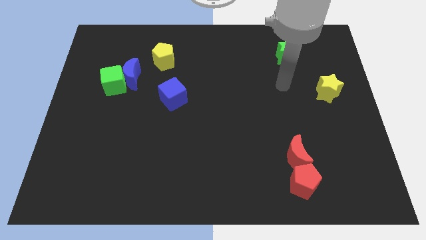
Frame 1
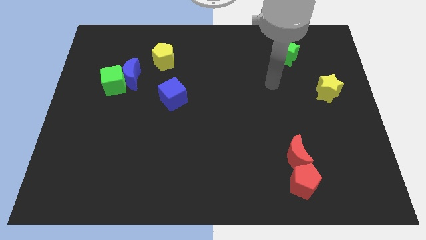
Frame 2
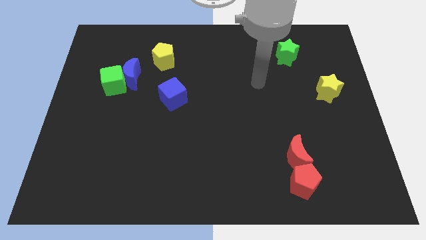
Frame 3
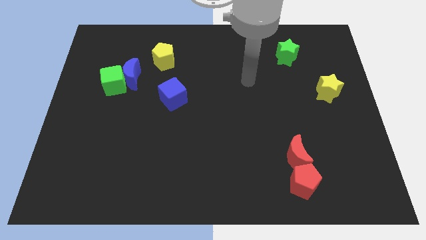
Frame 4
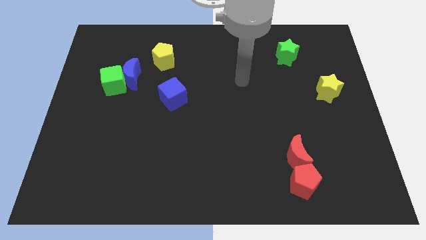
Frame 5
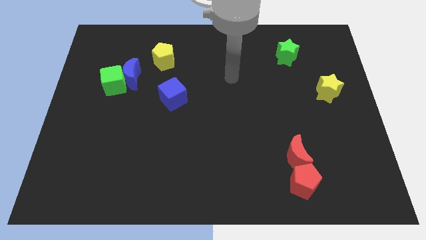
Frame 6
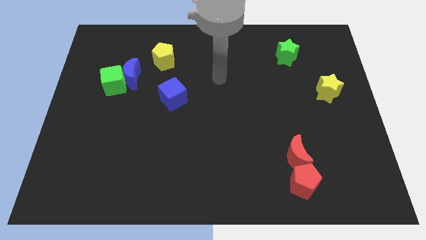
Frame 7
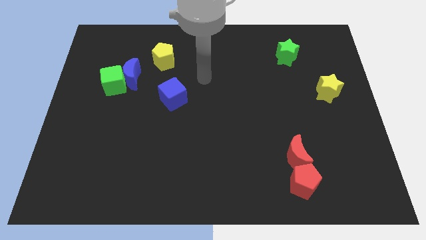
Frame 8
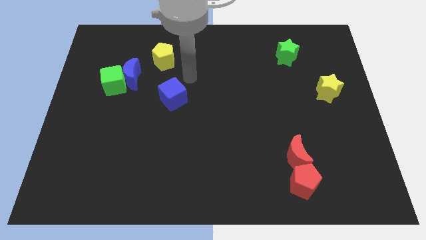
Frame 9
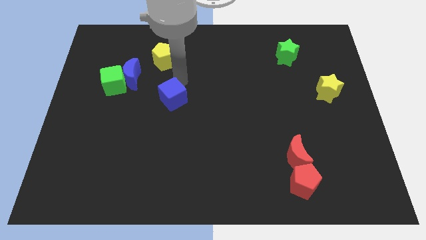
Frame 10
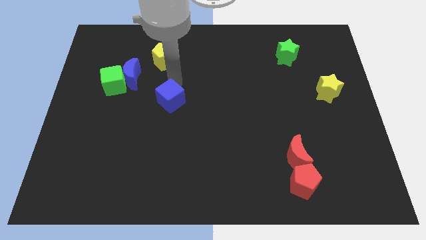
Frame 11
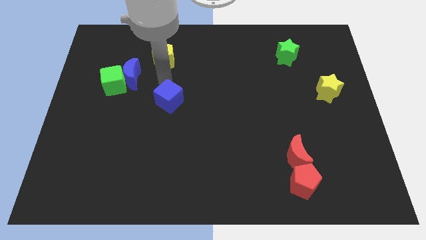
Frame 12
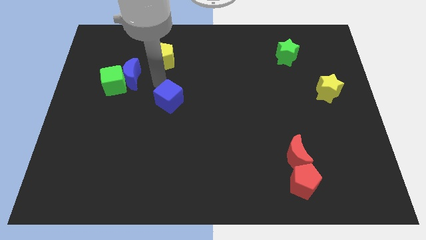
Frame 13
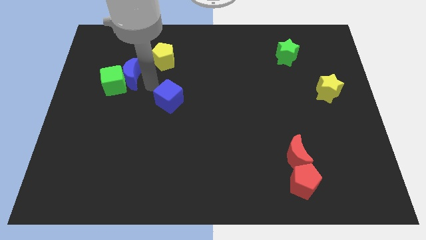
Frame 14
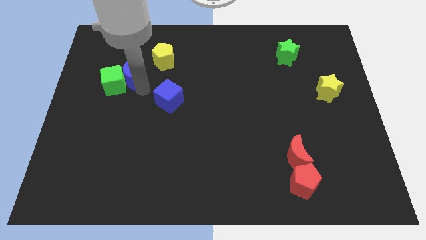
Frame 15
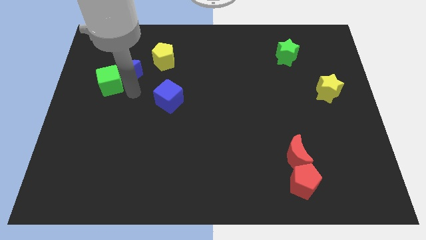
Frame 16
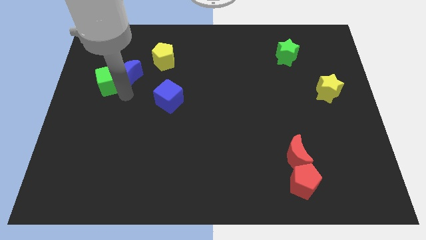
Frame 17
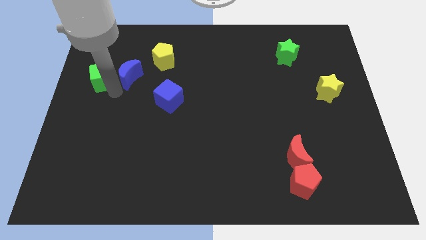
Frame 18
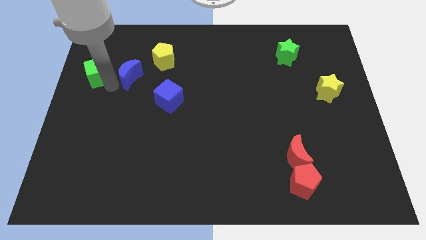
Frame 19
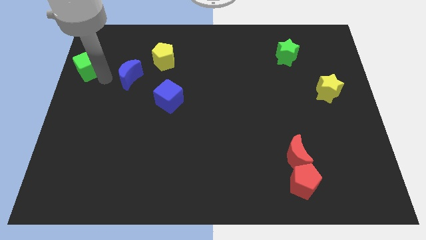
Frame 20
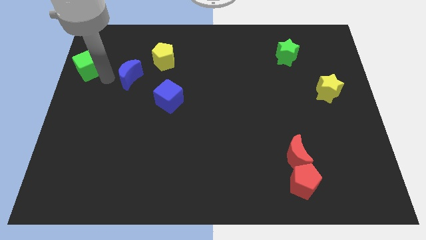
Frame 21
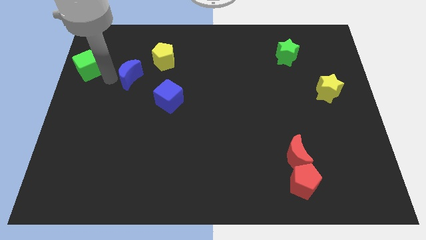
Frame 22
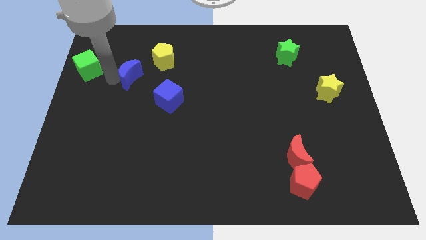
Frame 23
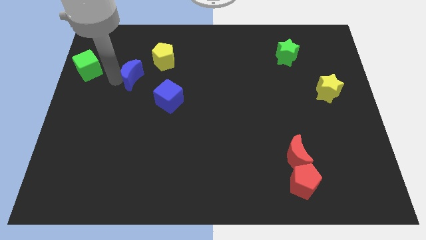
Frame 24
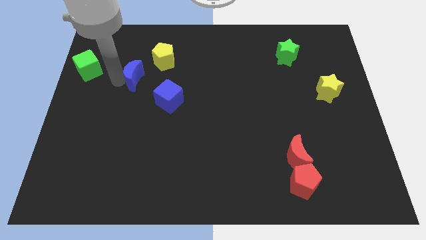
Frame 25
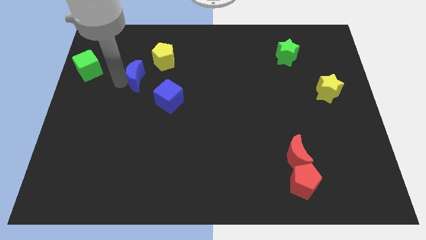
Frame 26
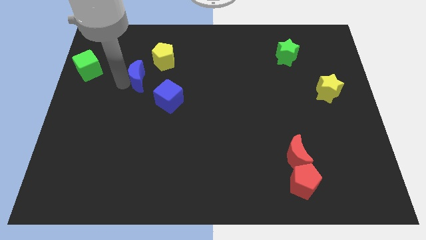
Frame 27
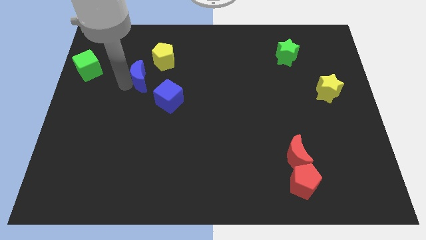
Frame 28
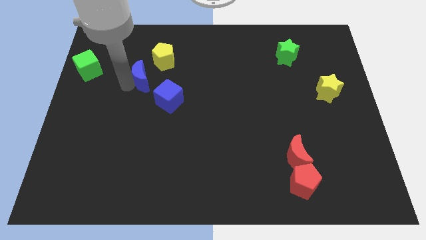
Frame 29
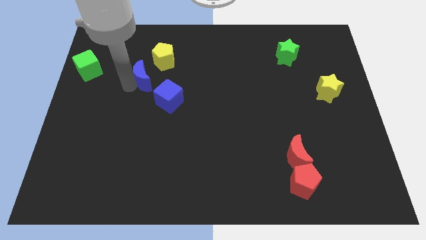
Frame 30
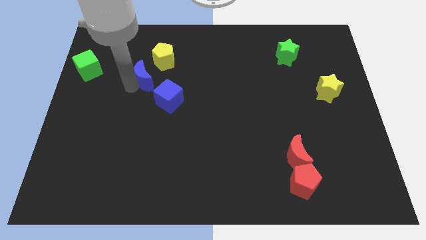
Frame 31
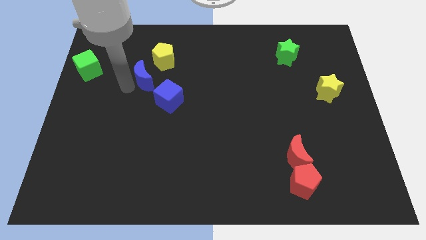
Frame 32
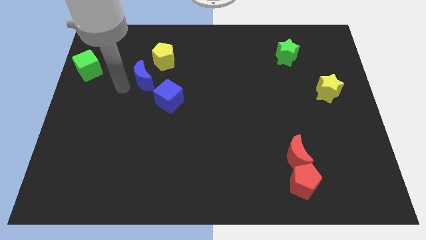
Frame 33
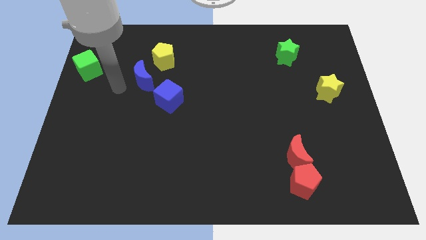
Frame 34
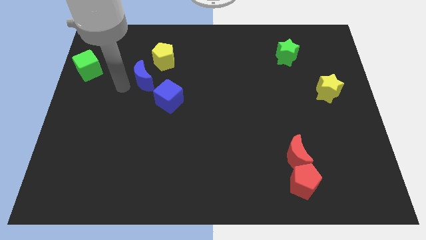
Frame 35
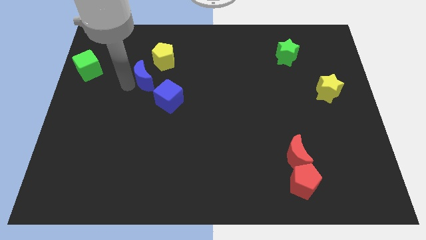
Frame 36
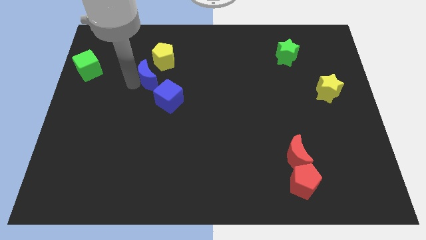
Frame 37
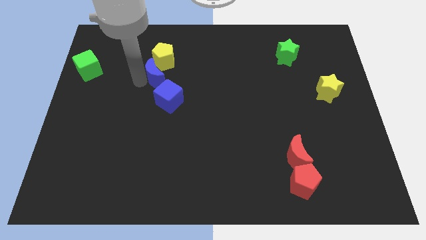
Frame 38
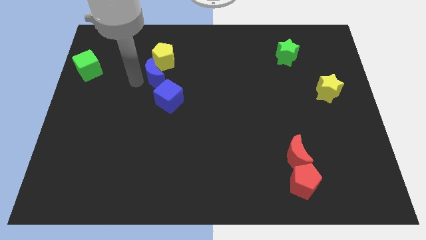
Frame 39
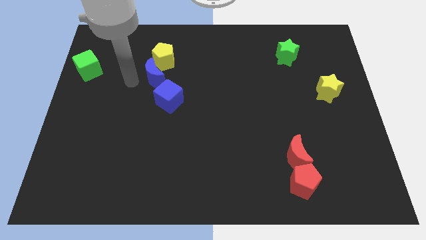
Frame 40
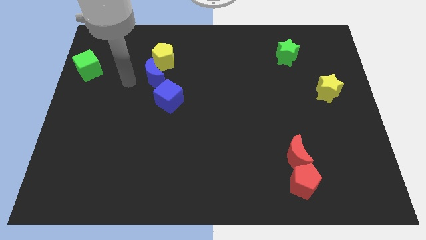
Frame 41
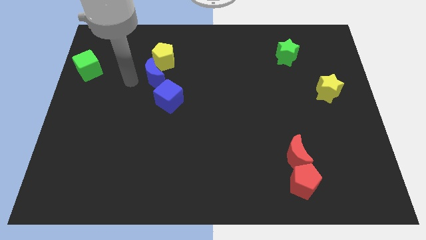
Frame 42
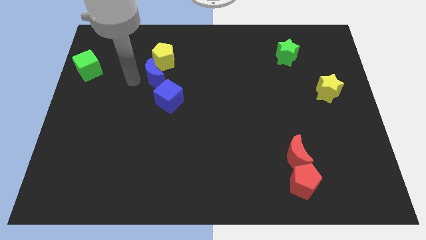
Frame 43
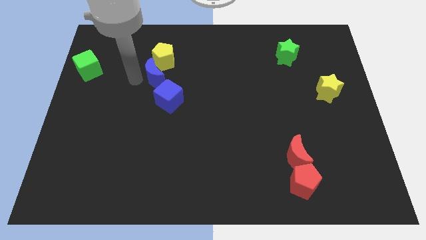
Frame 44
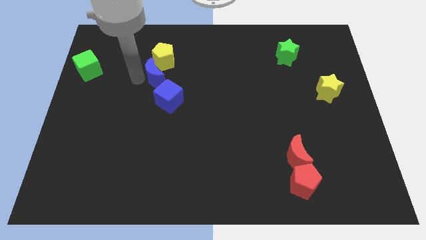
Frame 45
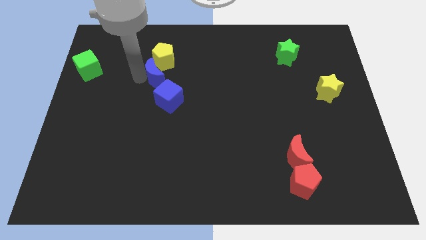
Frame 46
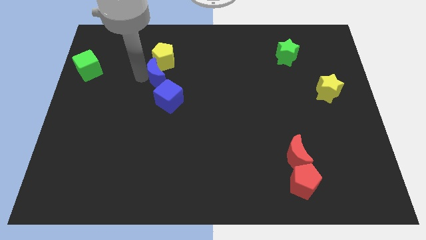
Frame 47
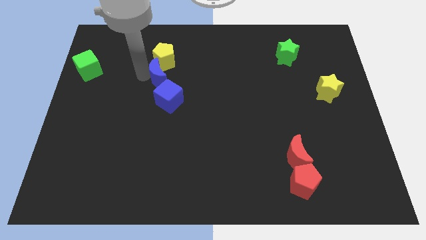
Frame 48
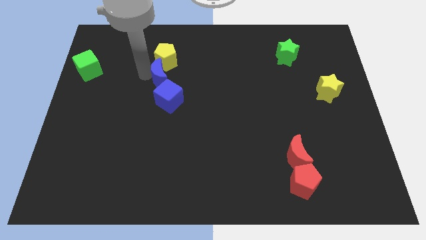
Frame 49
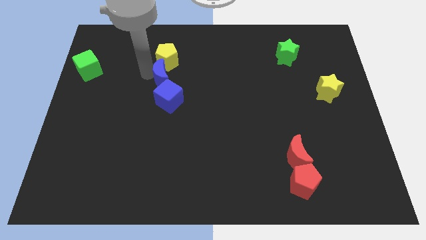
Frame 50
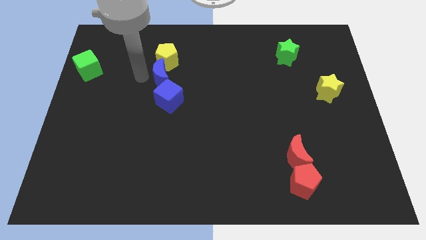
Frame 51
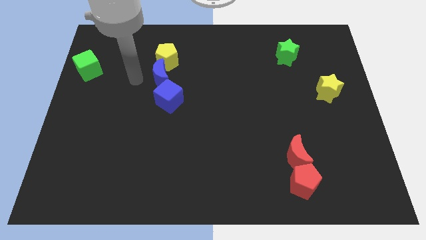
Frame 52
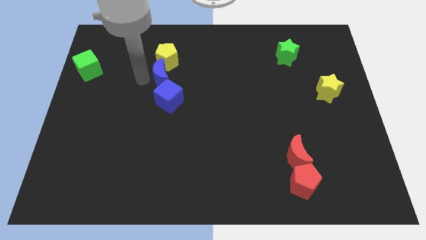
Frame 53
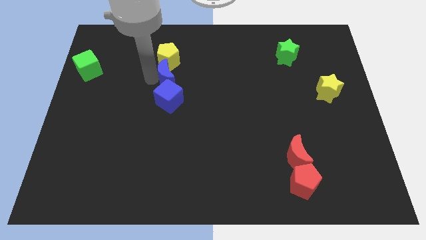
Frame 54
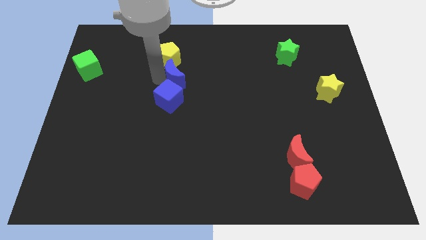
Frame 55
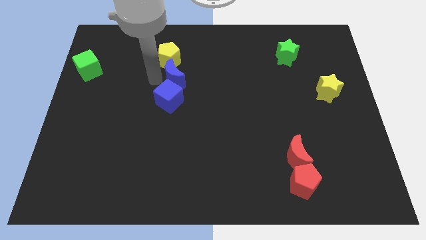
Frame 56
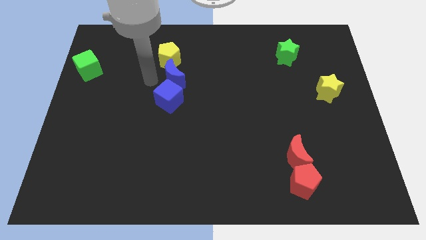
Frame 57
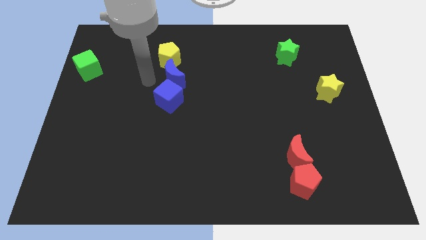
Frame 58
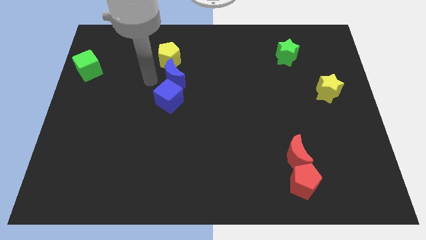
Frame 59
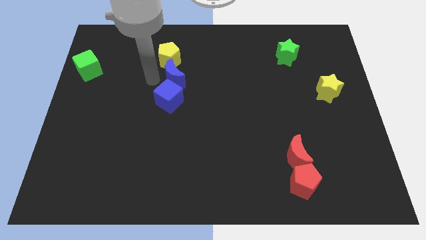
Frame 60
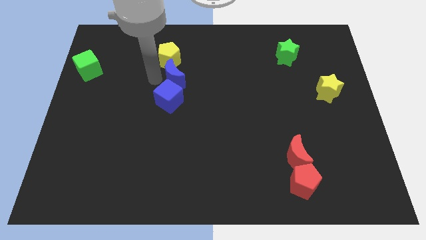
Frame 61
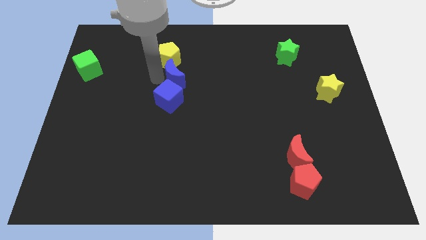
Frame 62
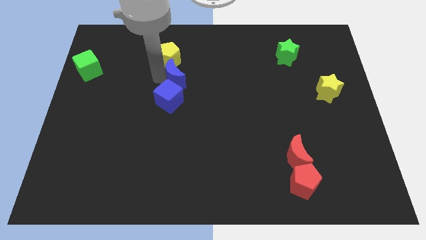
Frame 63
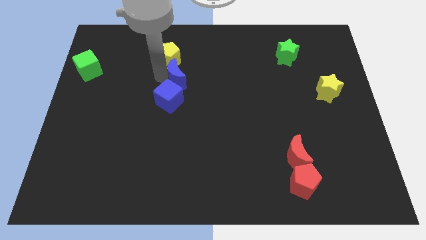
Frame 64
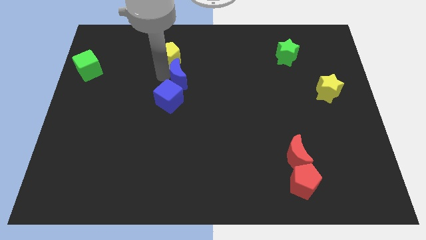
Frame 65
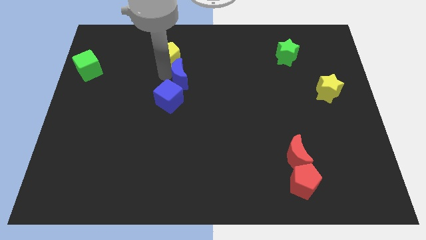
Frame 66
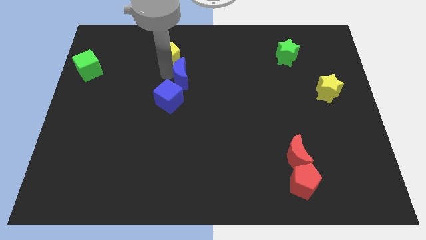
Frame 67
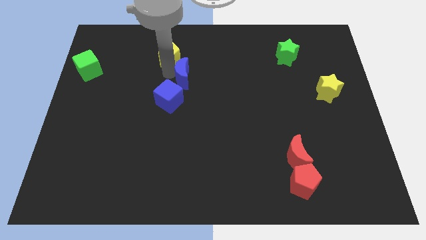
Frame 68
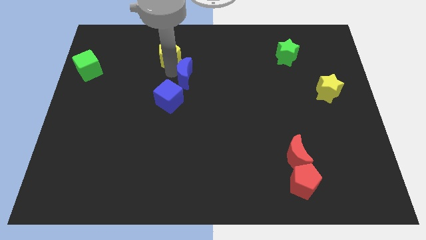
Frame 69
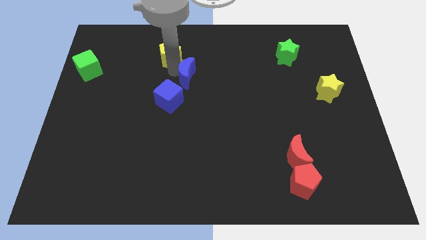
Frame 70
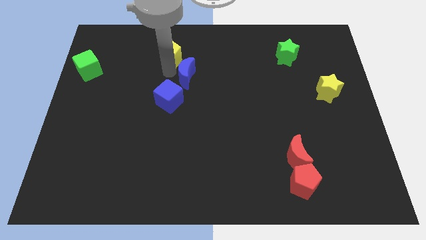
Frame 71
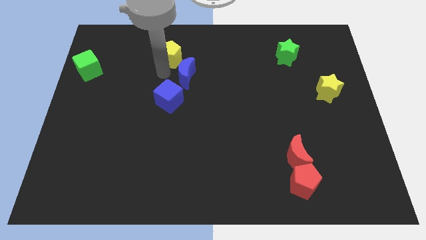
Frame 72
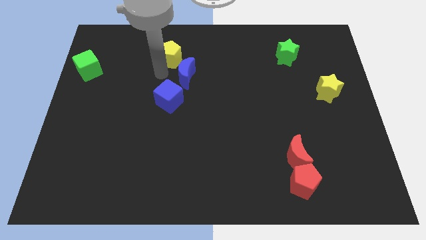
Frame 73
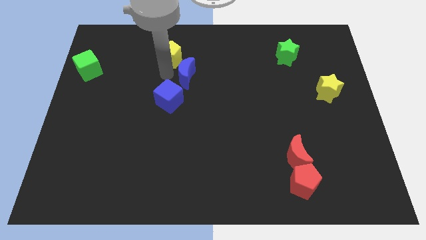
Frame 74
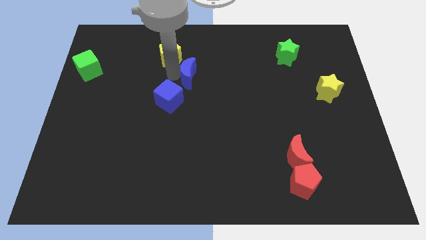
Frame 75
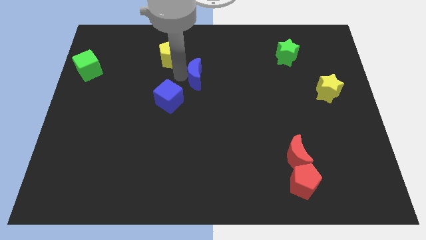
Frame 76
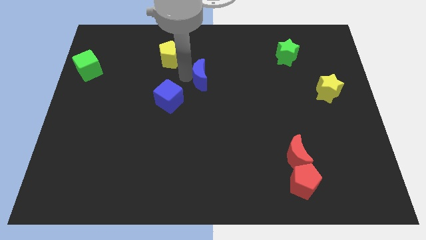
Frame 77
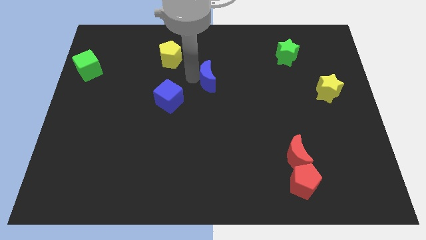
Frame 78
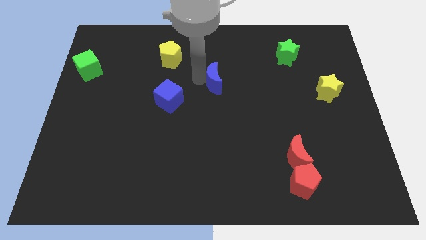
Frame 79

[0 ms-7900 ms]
push the blue moon to the right

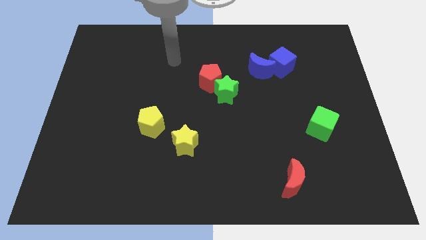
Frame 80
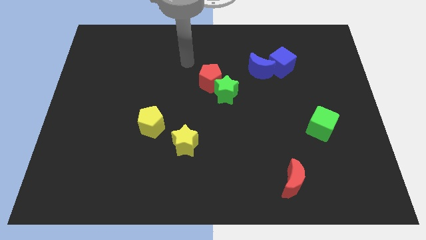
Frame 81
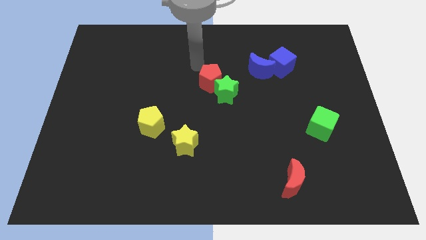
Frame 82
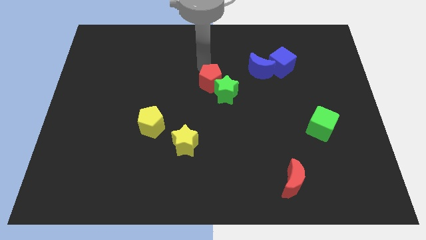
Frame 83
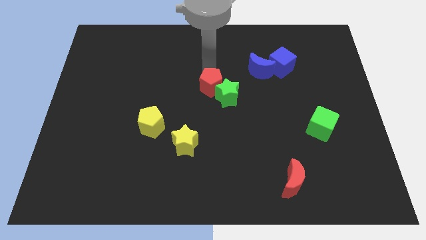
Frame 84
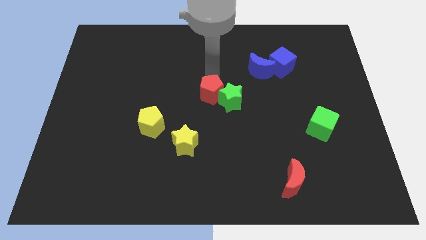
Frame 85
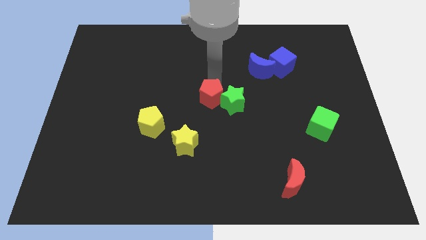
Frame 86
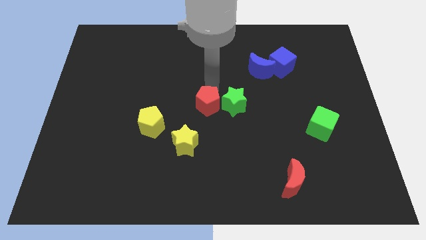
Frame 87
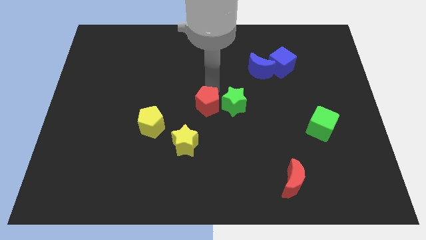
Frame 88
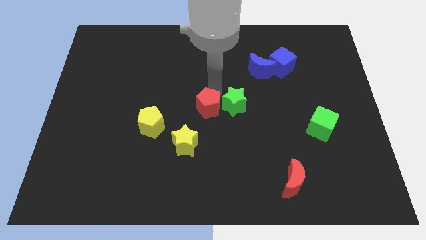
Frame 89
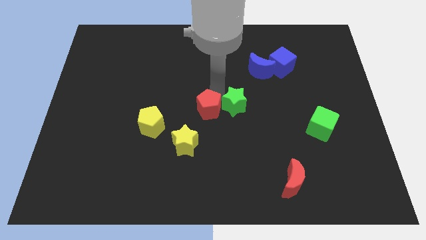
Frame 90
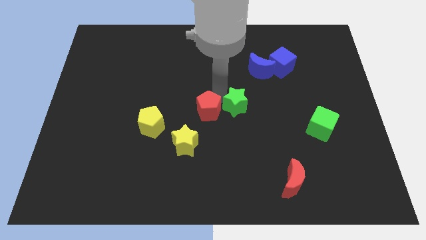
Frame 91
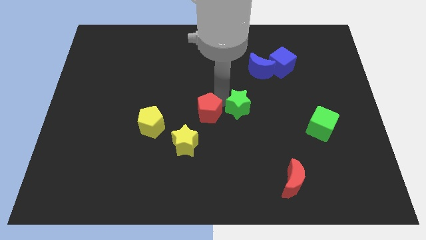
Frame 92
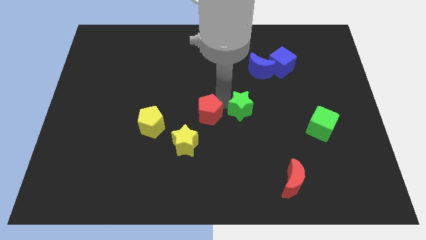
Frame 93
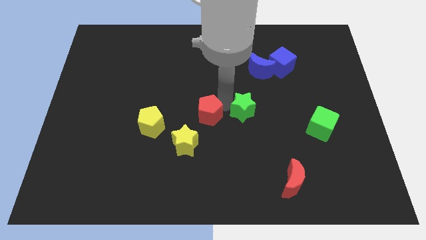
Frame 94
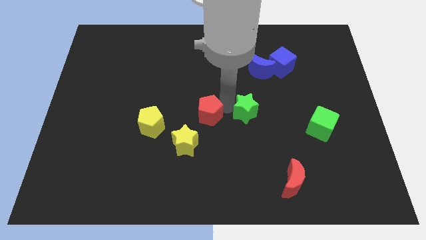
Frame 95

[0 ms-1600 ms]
move the green star down and then to the right a little bit
